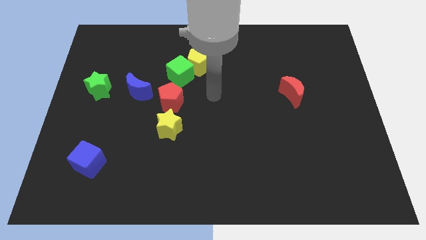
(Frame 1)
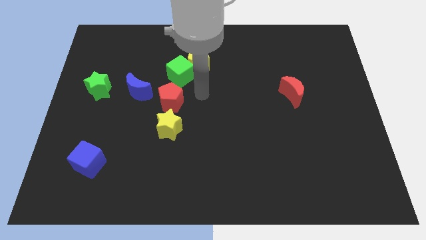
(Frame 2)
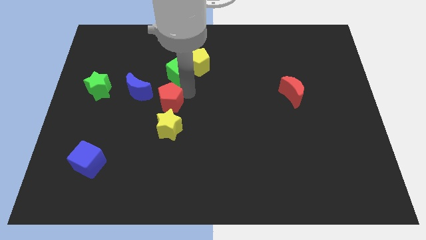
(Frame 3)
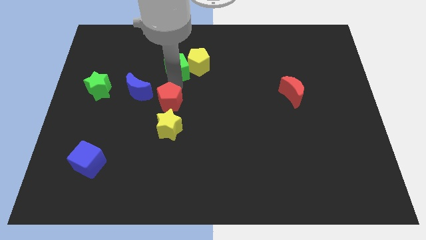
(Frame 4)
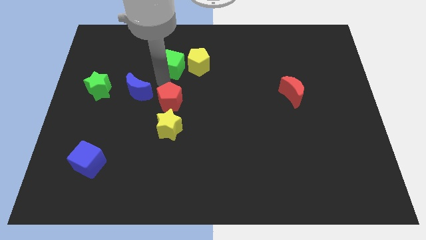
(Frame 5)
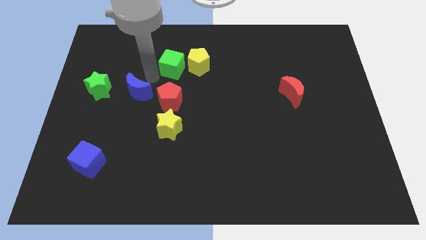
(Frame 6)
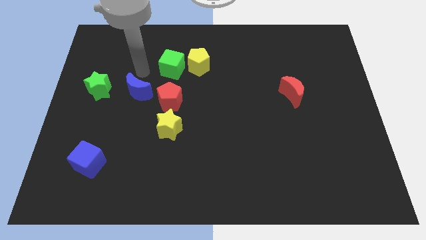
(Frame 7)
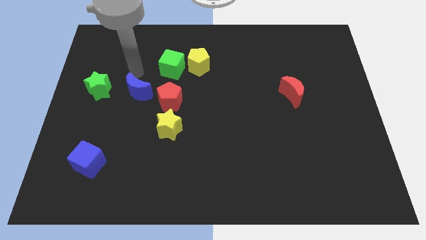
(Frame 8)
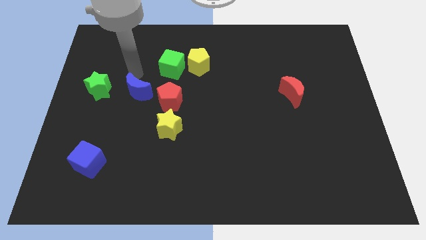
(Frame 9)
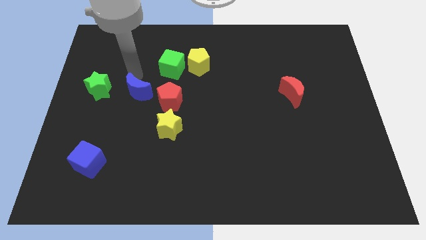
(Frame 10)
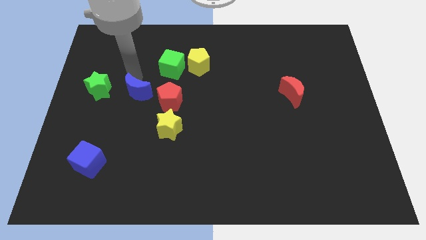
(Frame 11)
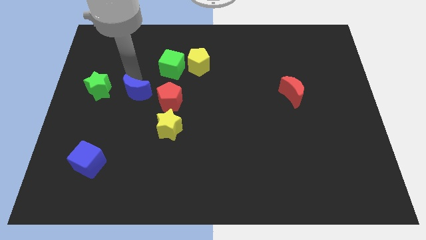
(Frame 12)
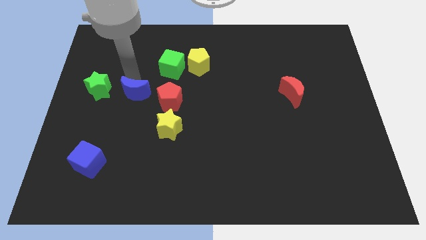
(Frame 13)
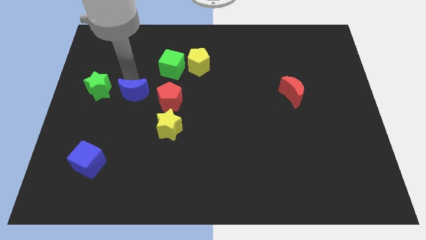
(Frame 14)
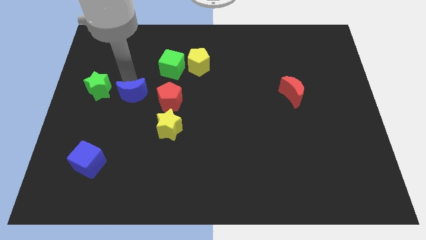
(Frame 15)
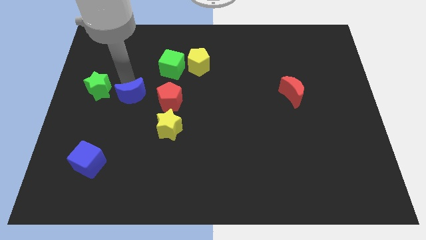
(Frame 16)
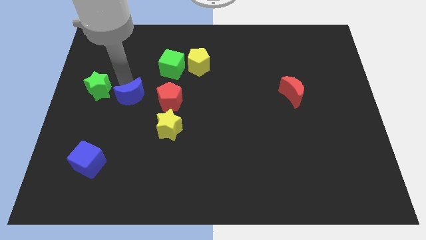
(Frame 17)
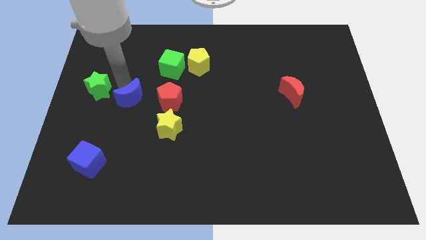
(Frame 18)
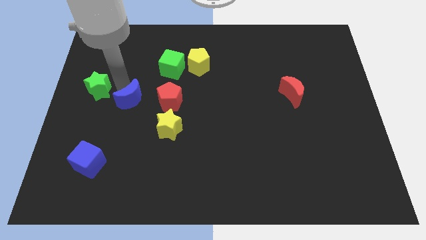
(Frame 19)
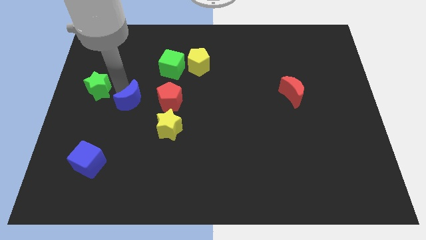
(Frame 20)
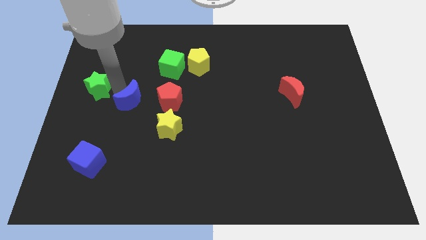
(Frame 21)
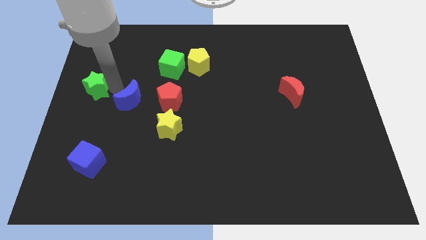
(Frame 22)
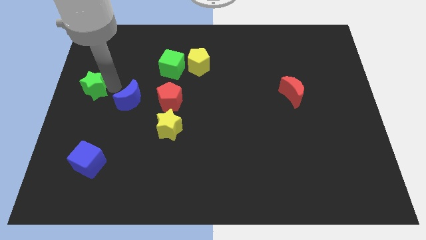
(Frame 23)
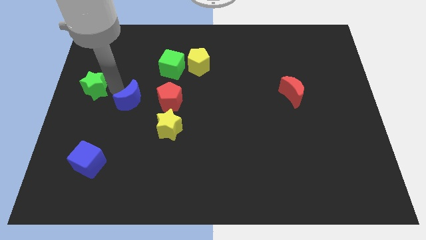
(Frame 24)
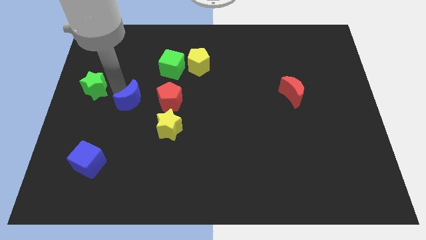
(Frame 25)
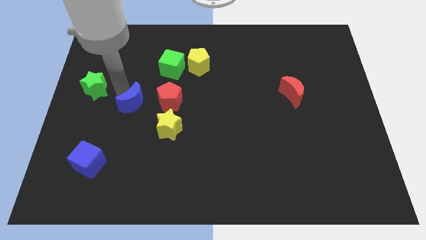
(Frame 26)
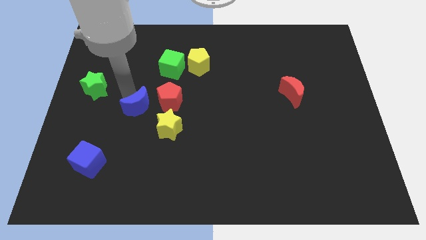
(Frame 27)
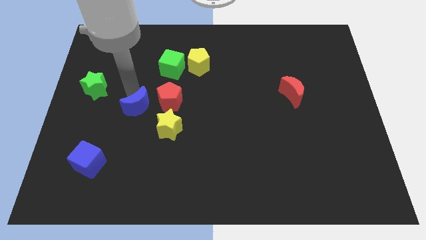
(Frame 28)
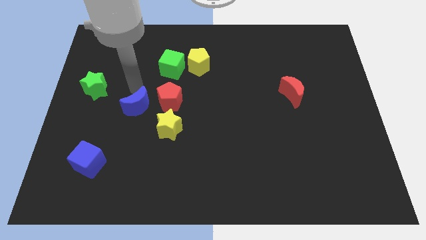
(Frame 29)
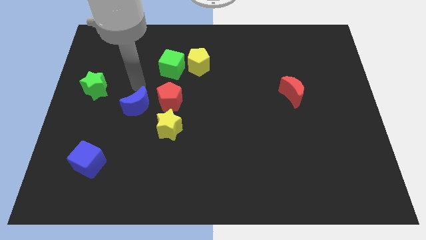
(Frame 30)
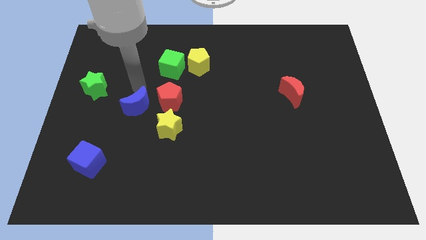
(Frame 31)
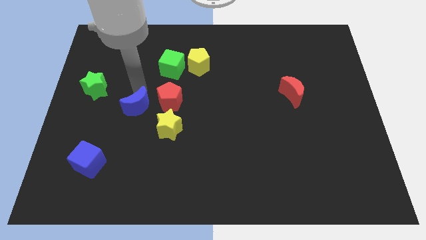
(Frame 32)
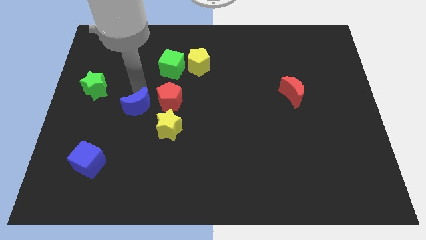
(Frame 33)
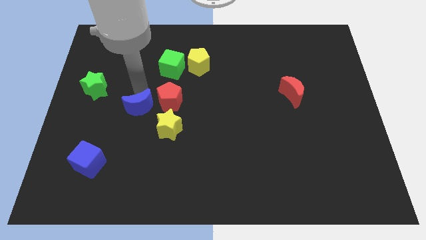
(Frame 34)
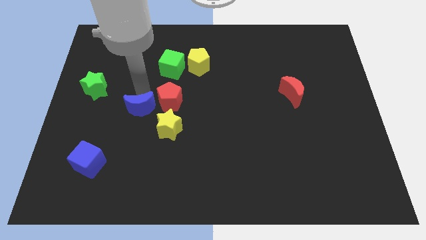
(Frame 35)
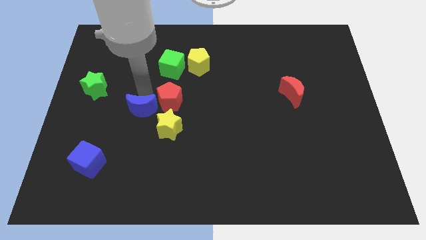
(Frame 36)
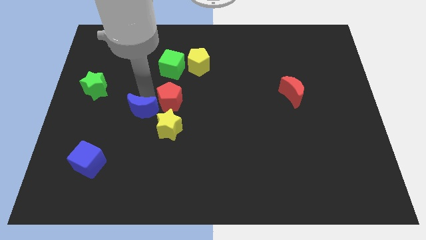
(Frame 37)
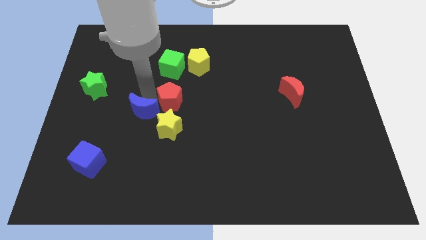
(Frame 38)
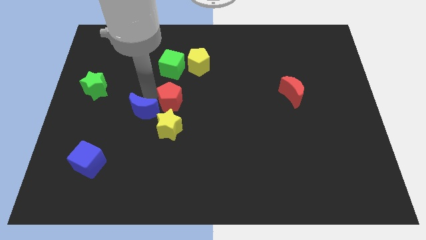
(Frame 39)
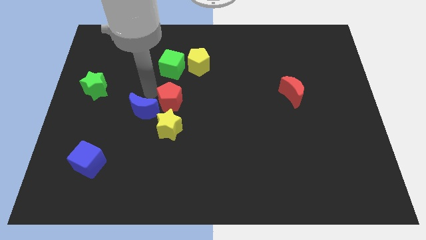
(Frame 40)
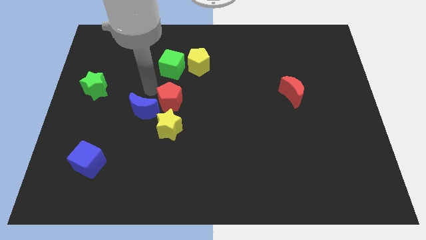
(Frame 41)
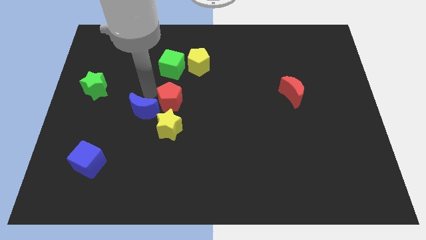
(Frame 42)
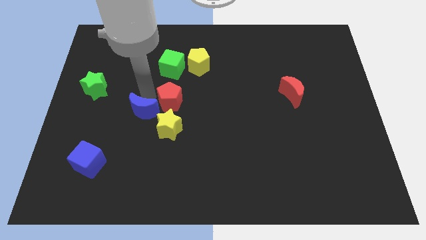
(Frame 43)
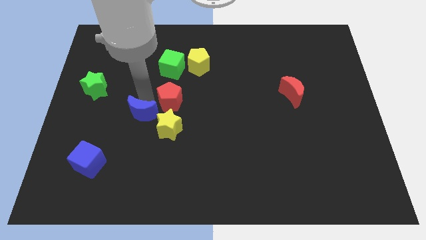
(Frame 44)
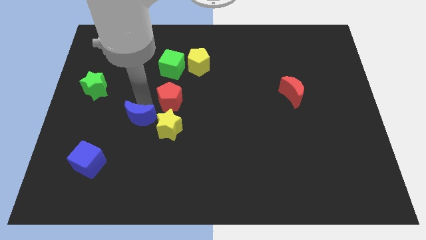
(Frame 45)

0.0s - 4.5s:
slightly slide the blue moon downwards

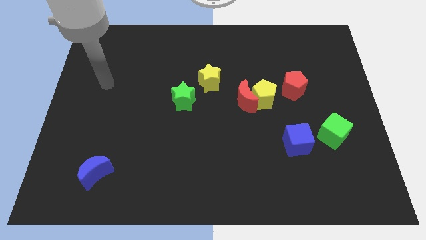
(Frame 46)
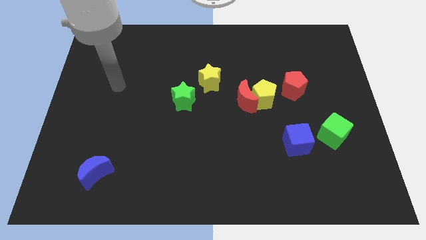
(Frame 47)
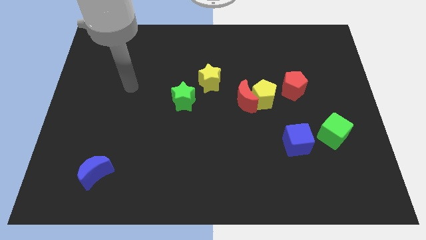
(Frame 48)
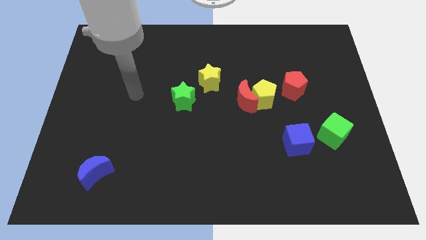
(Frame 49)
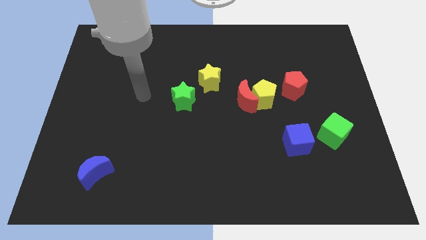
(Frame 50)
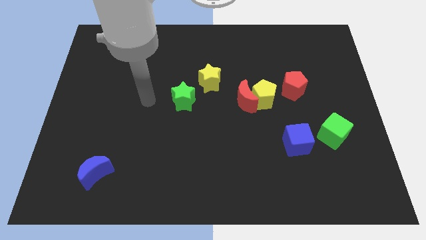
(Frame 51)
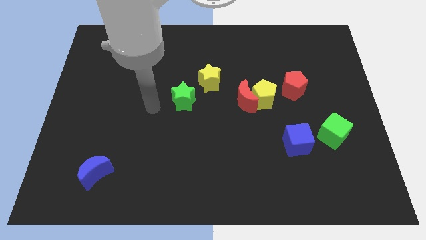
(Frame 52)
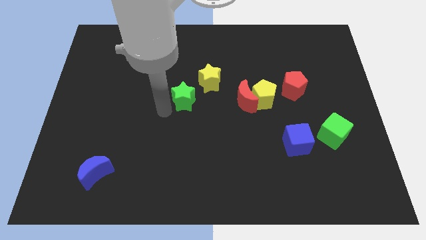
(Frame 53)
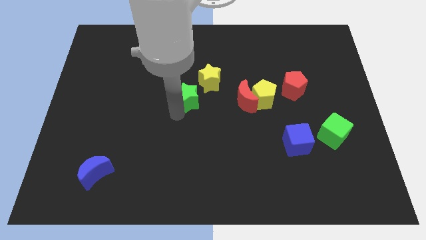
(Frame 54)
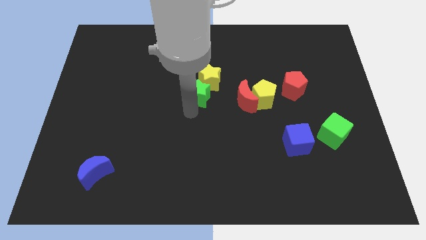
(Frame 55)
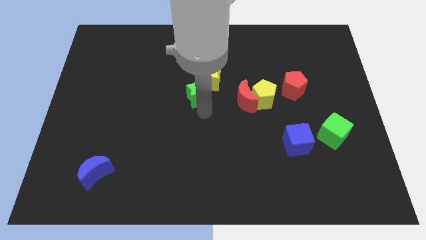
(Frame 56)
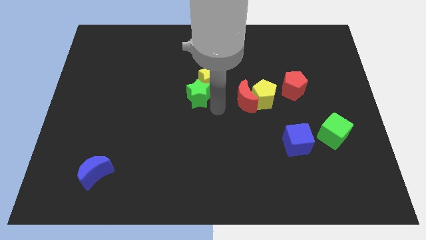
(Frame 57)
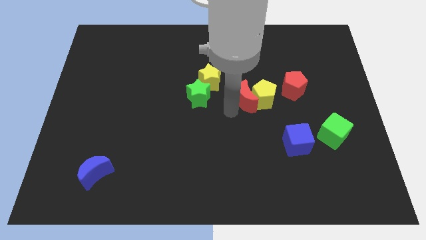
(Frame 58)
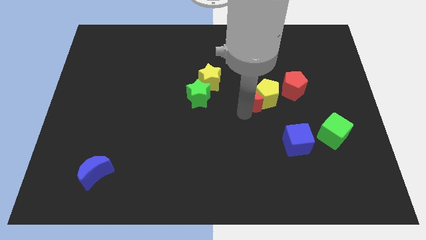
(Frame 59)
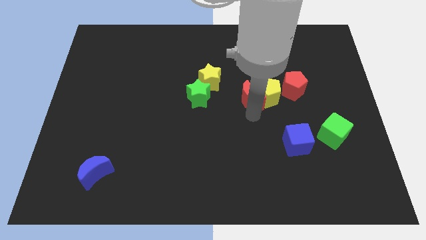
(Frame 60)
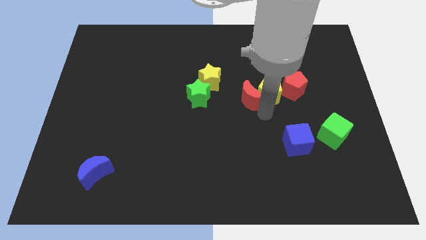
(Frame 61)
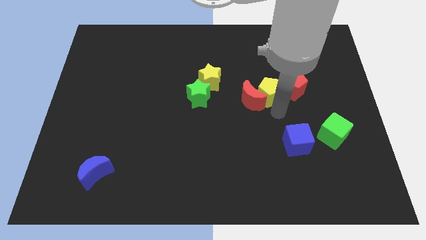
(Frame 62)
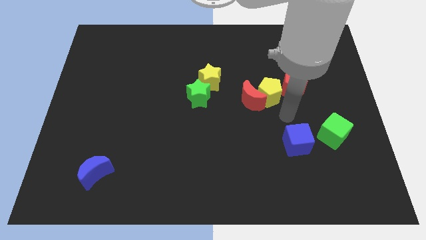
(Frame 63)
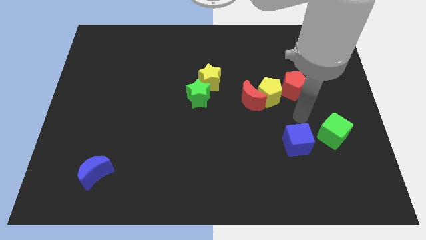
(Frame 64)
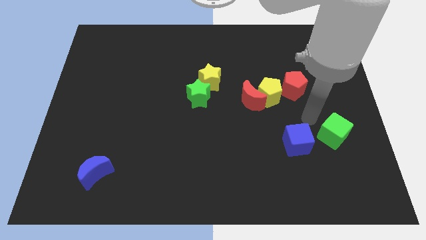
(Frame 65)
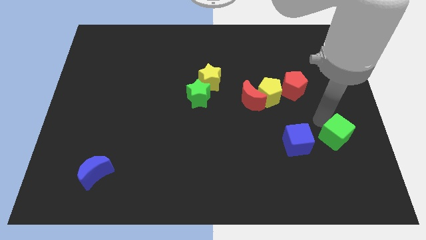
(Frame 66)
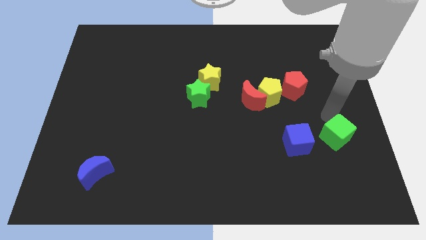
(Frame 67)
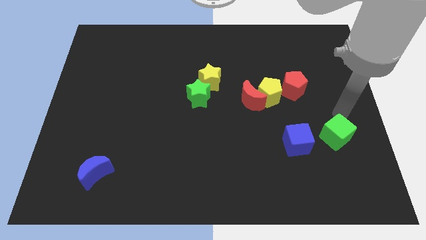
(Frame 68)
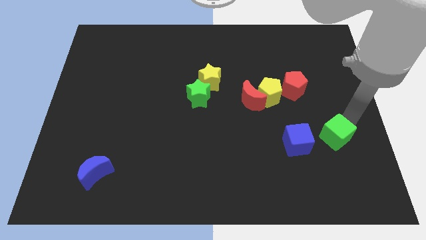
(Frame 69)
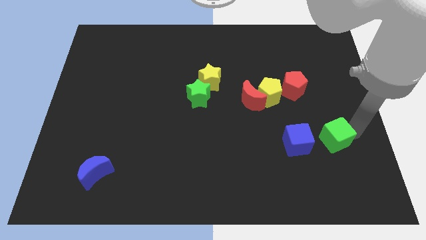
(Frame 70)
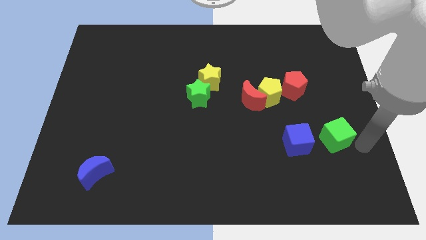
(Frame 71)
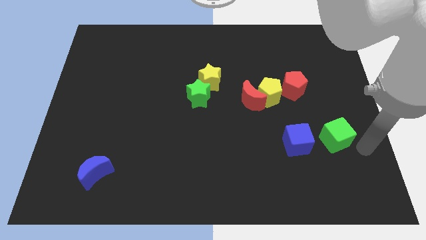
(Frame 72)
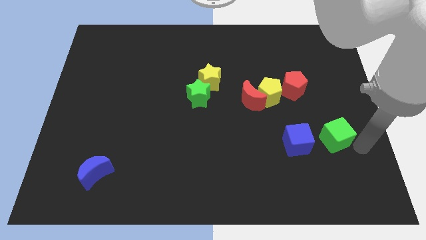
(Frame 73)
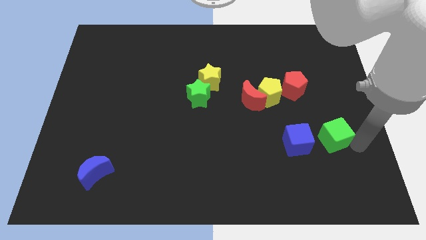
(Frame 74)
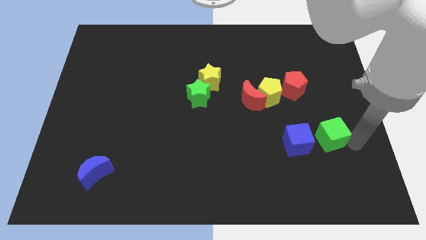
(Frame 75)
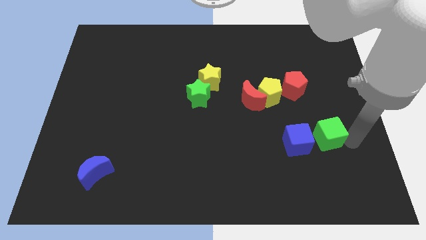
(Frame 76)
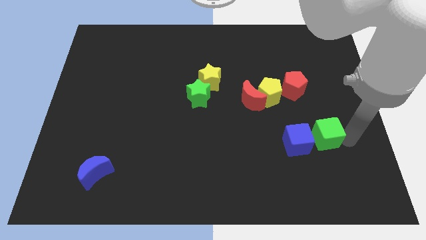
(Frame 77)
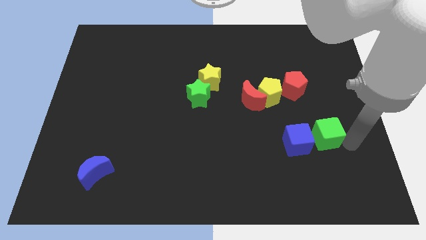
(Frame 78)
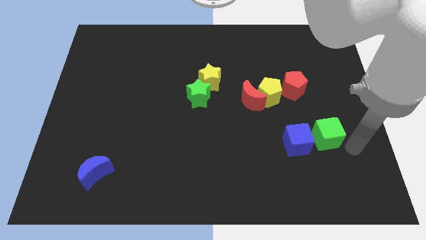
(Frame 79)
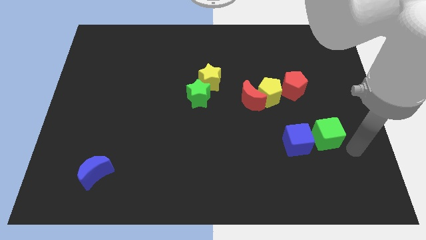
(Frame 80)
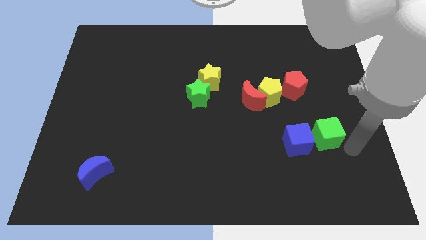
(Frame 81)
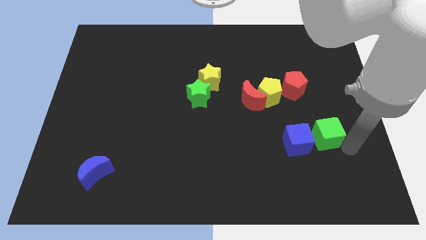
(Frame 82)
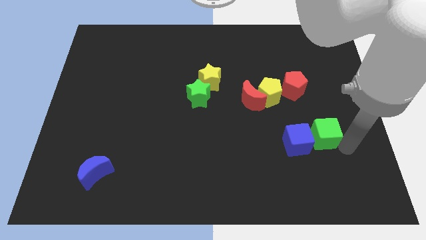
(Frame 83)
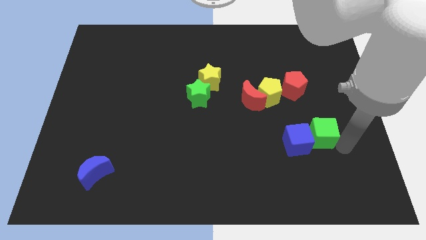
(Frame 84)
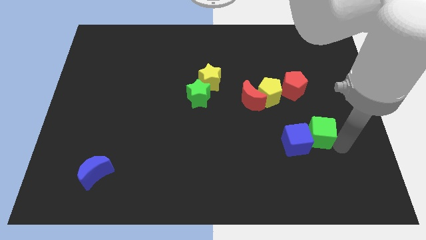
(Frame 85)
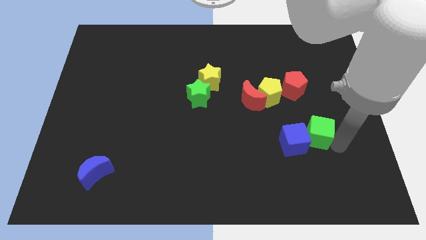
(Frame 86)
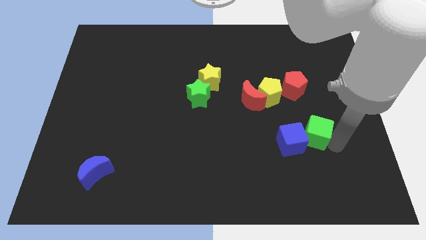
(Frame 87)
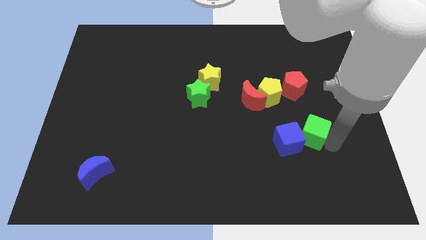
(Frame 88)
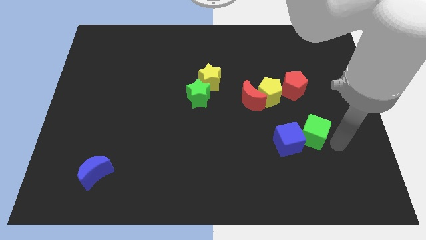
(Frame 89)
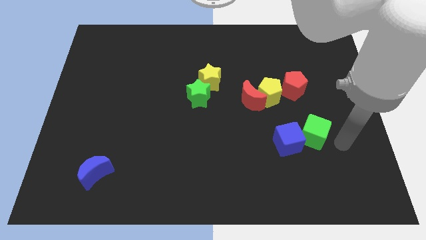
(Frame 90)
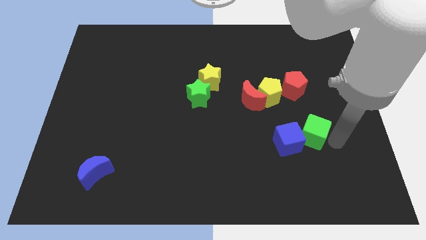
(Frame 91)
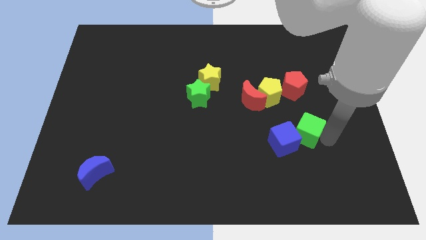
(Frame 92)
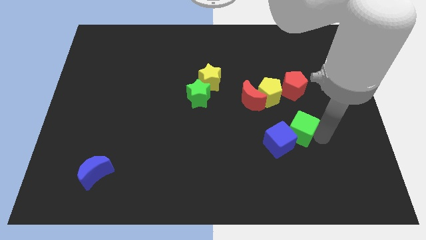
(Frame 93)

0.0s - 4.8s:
slide the green cube a little bit left
